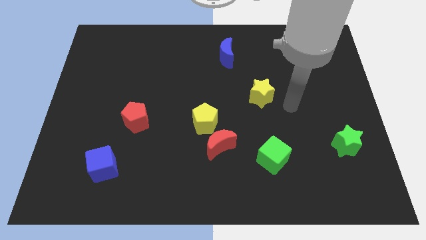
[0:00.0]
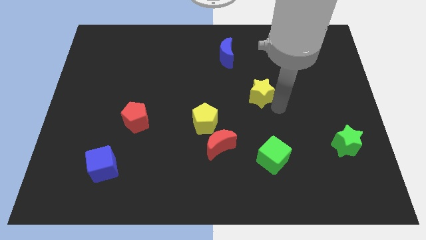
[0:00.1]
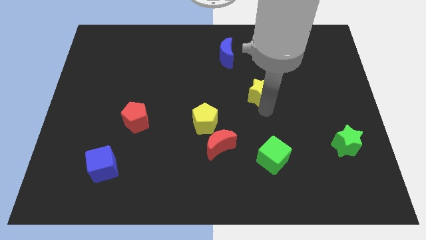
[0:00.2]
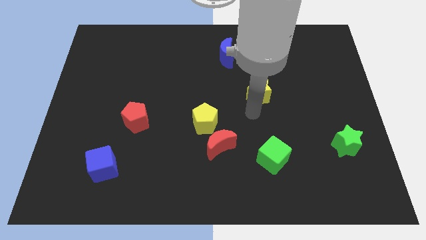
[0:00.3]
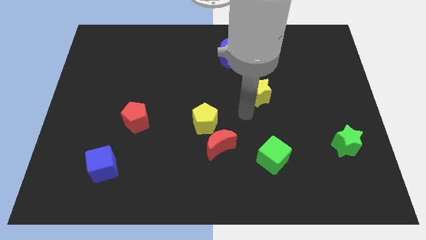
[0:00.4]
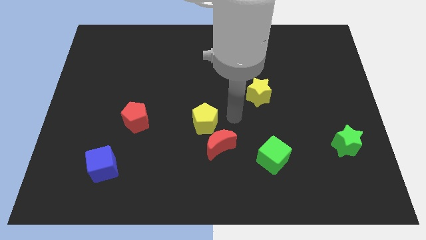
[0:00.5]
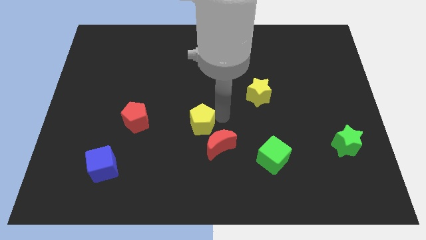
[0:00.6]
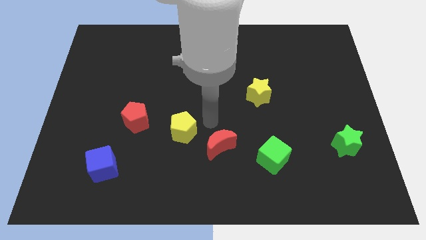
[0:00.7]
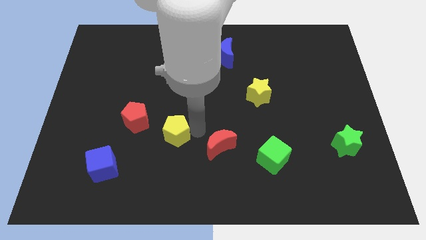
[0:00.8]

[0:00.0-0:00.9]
move the red moon away from the yellow pentagon

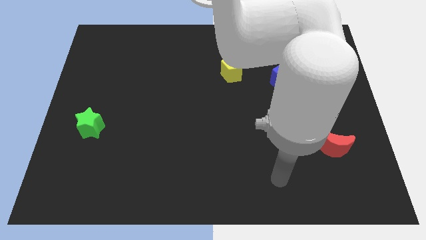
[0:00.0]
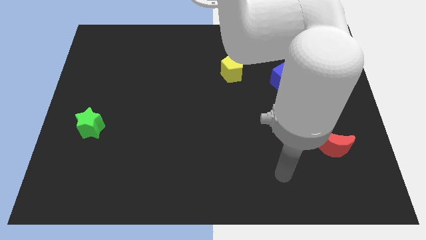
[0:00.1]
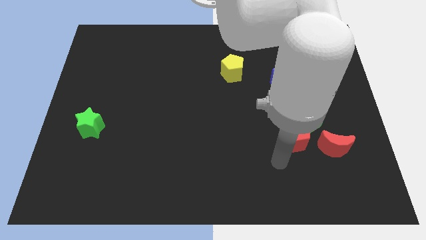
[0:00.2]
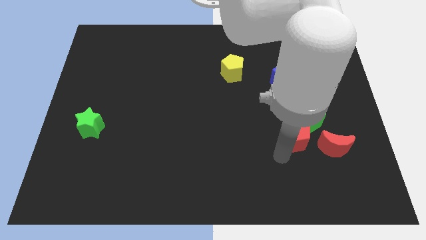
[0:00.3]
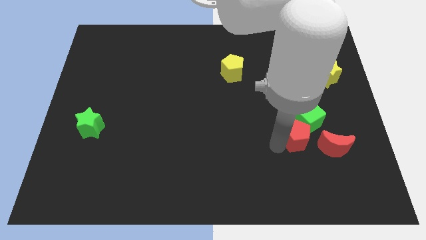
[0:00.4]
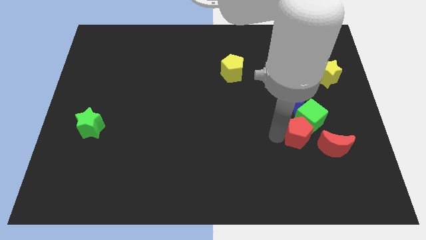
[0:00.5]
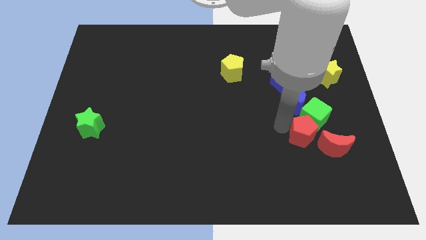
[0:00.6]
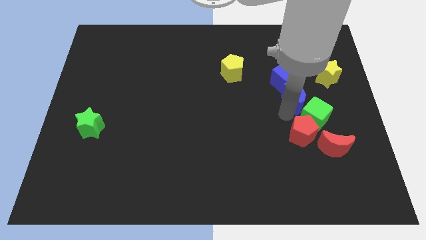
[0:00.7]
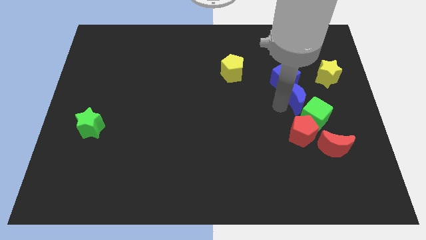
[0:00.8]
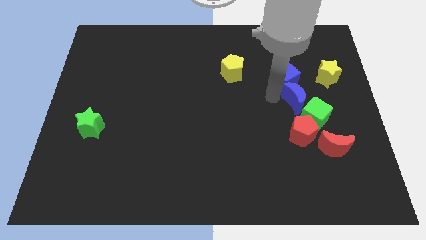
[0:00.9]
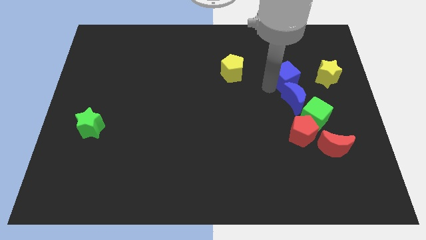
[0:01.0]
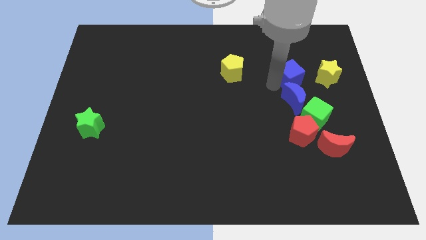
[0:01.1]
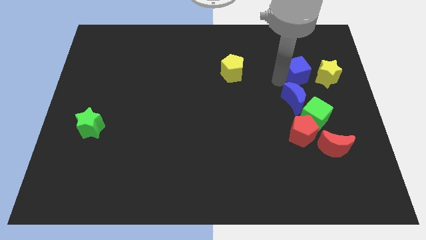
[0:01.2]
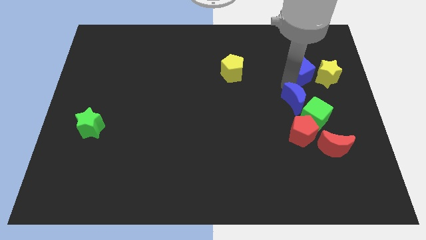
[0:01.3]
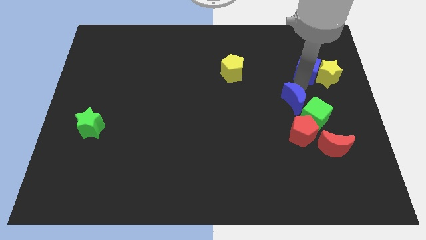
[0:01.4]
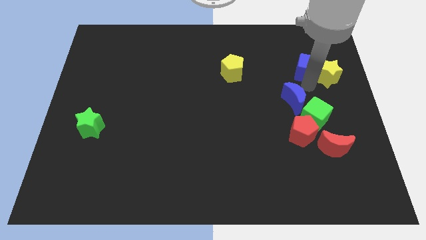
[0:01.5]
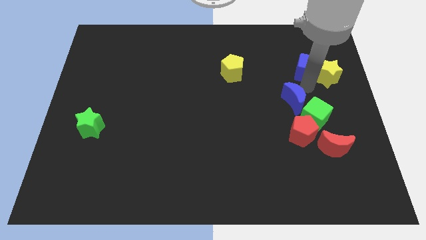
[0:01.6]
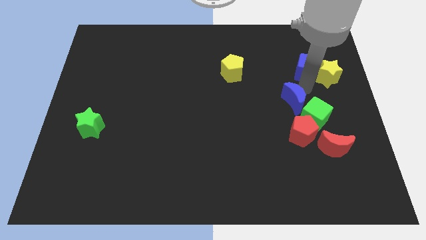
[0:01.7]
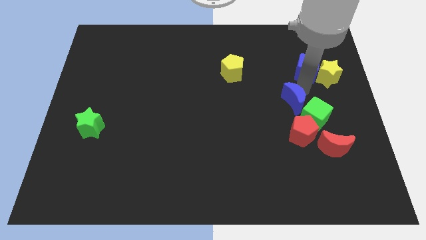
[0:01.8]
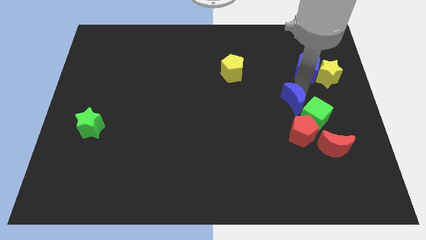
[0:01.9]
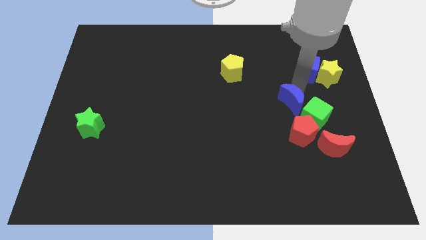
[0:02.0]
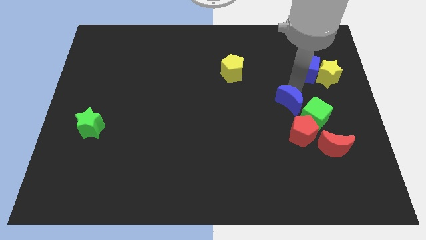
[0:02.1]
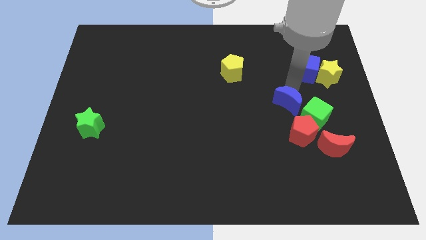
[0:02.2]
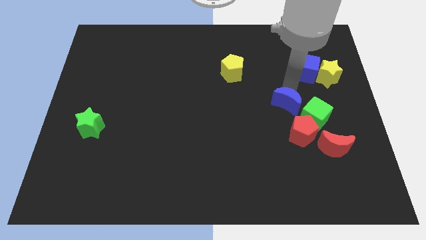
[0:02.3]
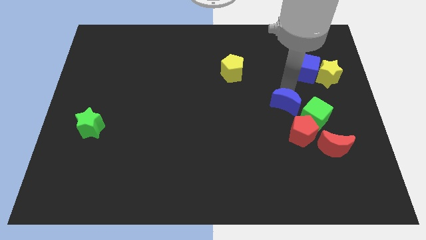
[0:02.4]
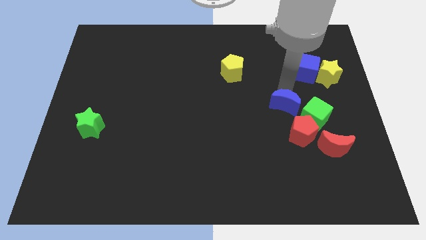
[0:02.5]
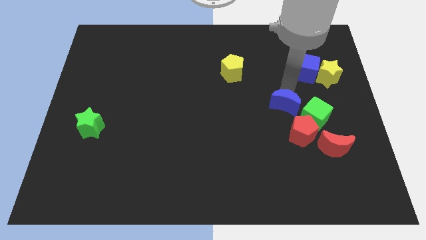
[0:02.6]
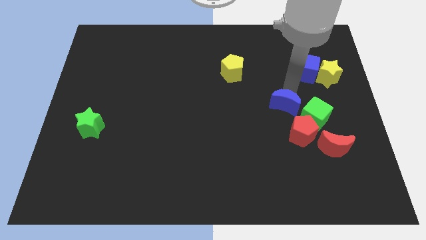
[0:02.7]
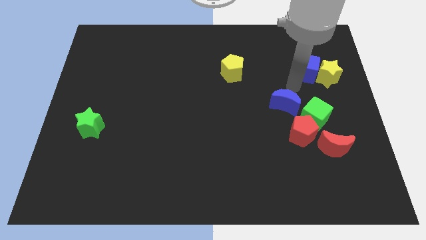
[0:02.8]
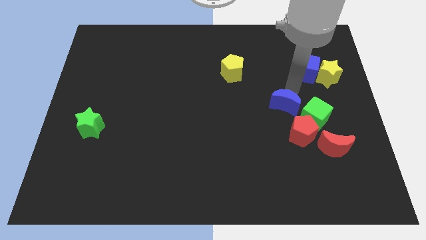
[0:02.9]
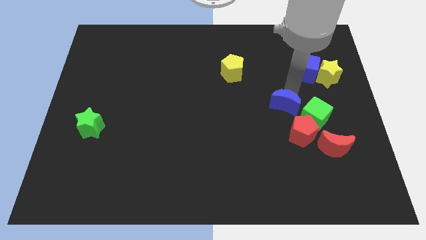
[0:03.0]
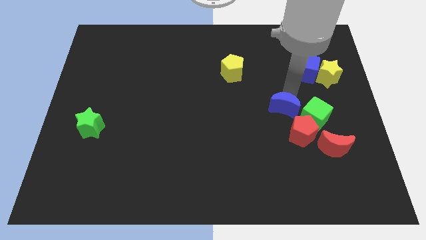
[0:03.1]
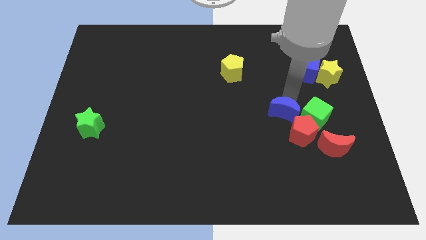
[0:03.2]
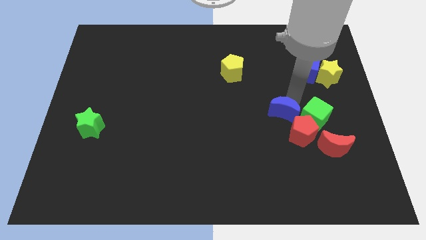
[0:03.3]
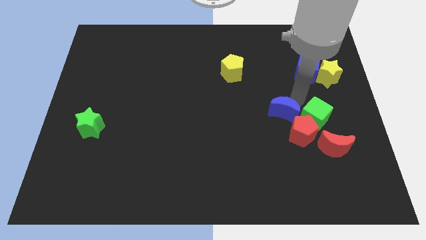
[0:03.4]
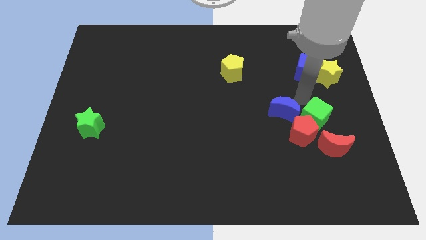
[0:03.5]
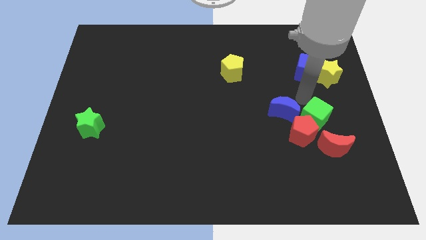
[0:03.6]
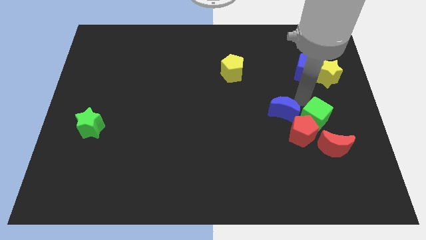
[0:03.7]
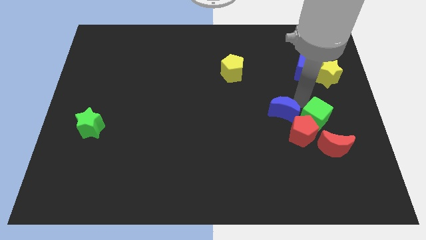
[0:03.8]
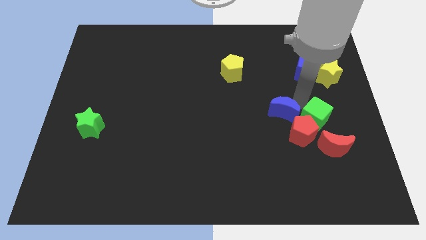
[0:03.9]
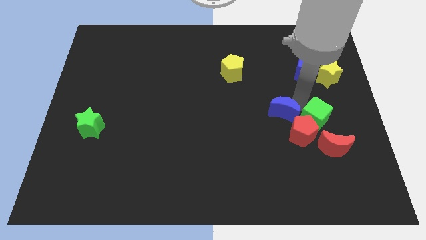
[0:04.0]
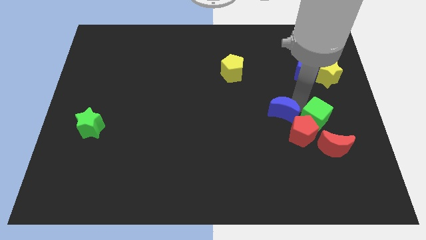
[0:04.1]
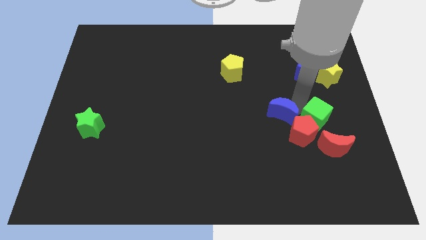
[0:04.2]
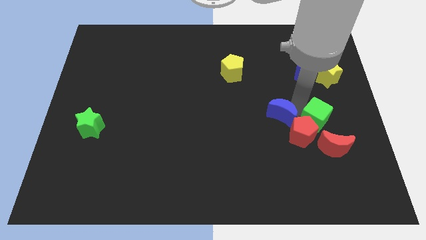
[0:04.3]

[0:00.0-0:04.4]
move the blue moon away from the green cube and blue cube

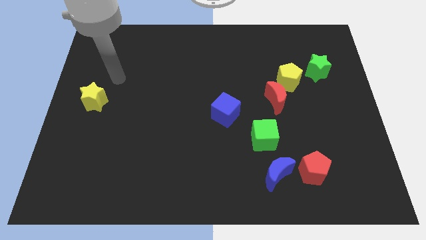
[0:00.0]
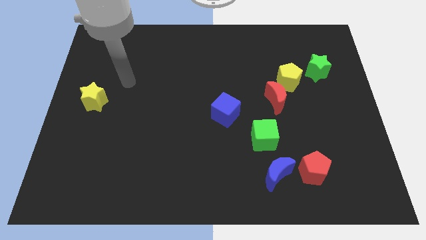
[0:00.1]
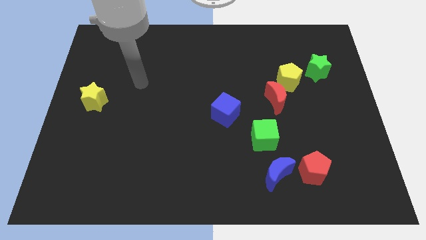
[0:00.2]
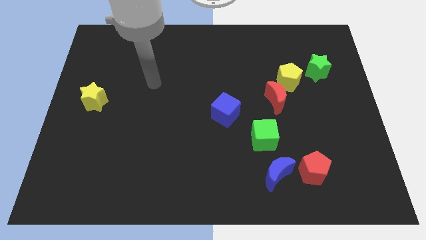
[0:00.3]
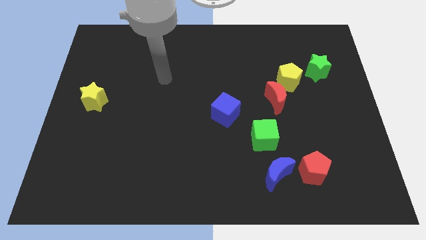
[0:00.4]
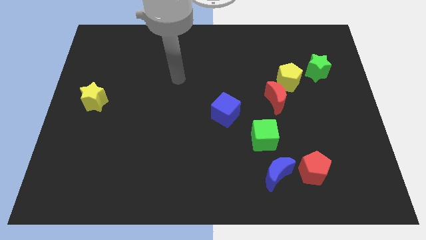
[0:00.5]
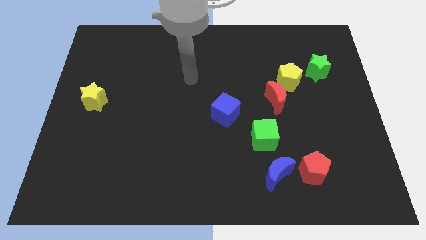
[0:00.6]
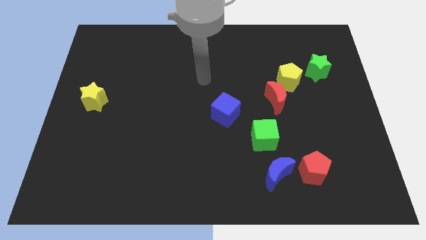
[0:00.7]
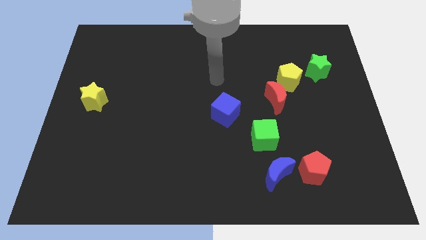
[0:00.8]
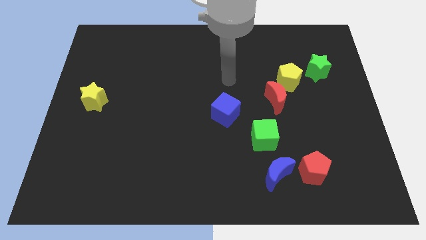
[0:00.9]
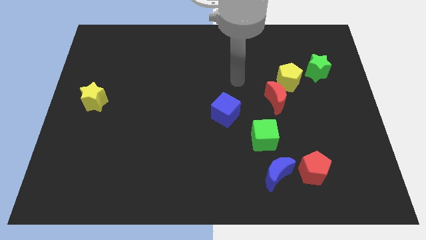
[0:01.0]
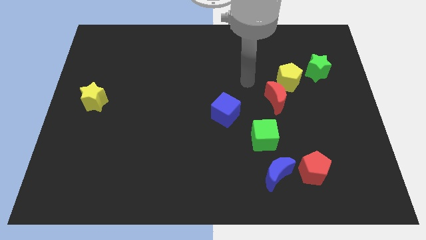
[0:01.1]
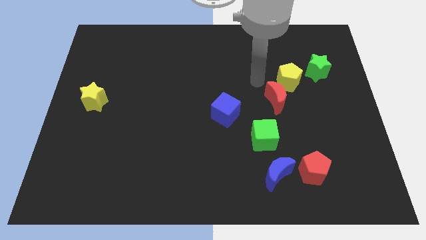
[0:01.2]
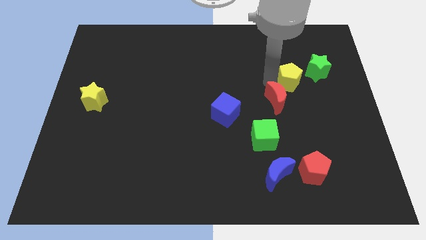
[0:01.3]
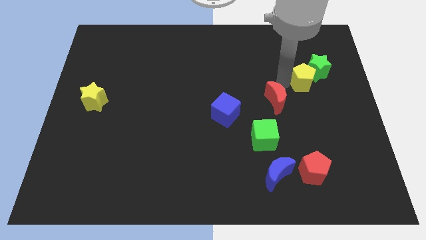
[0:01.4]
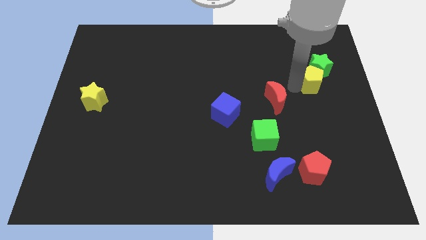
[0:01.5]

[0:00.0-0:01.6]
pull the red moon apart from the yellow pentagon

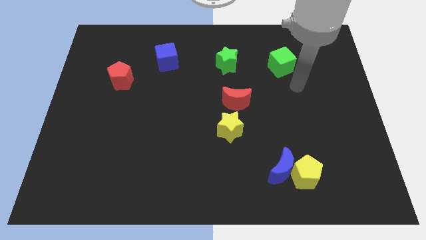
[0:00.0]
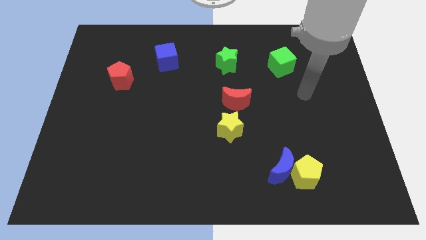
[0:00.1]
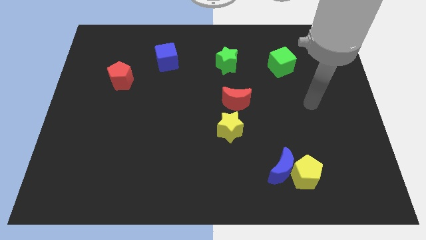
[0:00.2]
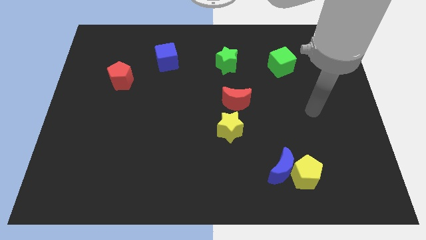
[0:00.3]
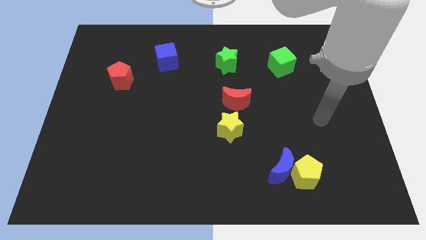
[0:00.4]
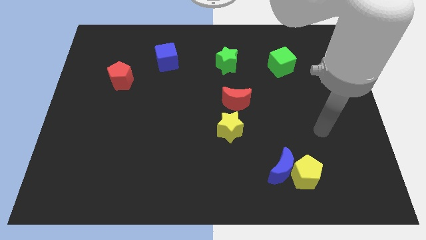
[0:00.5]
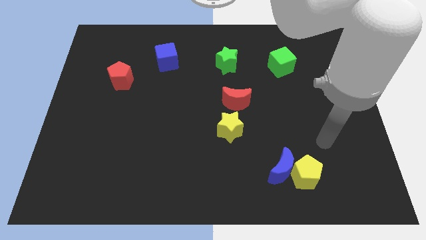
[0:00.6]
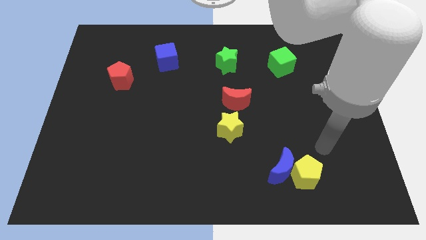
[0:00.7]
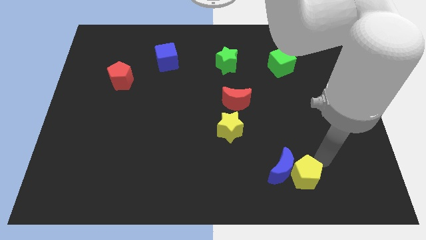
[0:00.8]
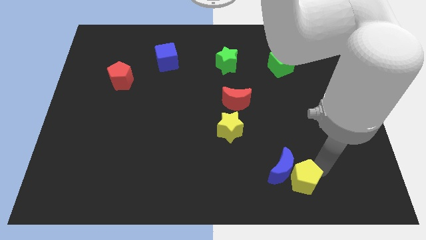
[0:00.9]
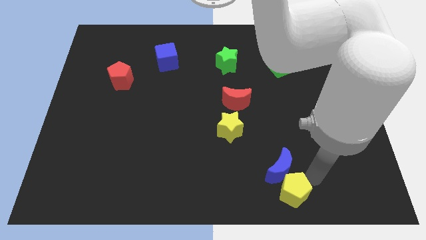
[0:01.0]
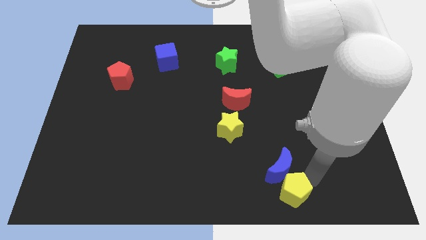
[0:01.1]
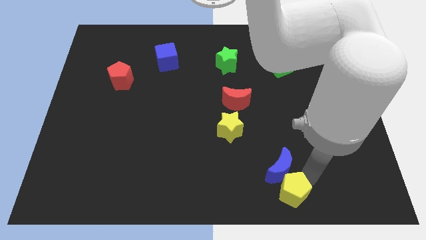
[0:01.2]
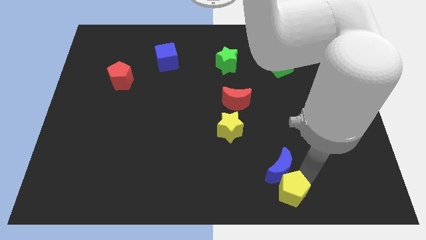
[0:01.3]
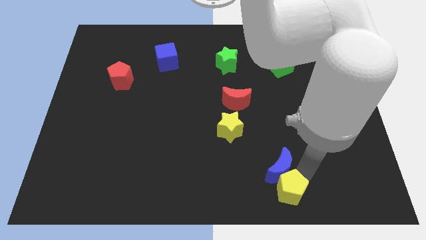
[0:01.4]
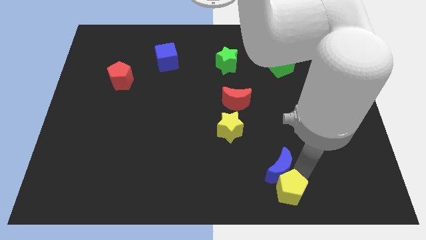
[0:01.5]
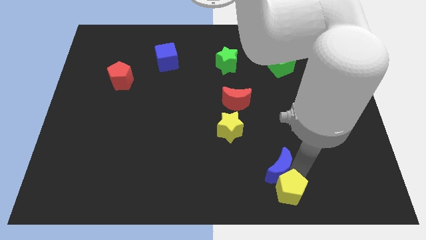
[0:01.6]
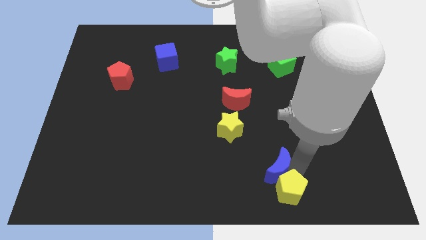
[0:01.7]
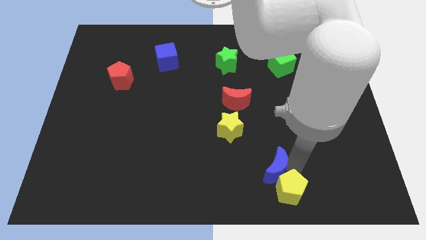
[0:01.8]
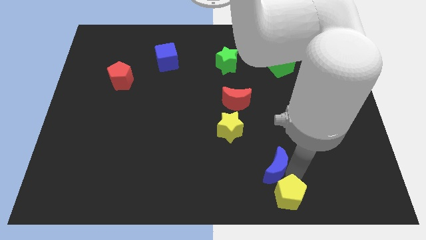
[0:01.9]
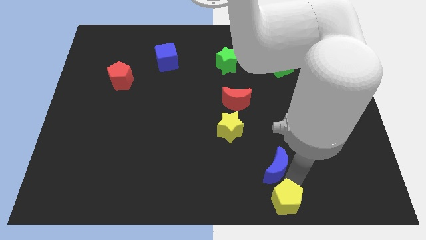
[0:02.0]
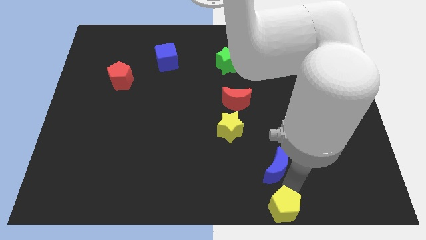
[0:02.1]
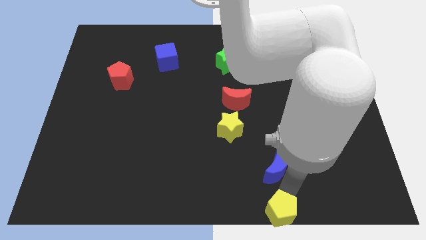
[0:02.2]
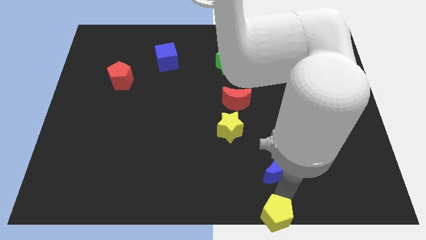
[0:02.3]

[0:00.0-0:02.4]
move the blue moon away from the yellow pentagon

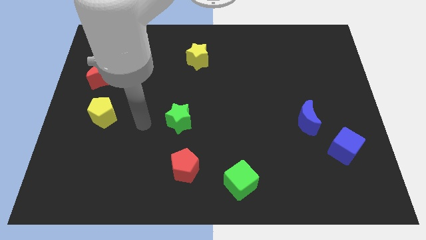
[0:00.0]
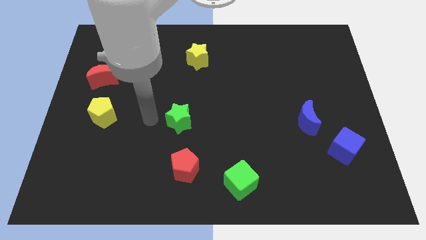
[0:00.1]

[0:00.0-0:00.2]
separate the blue moon from the blue cube

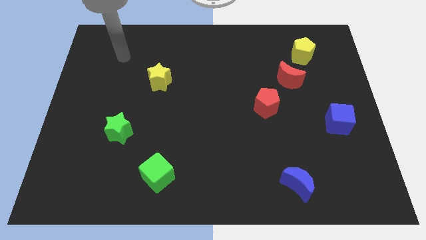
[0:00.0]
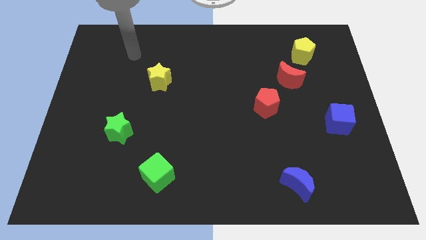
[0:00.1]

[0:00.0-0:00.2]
separate the red moon from the yellow pentagon
